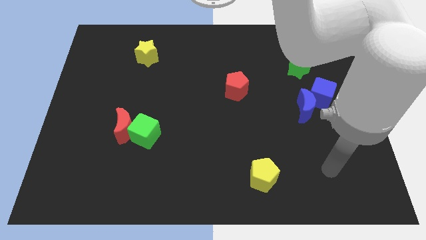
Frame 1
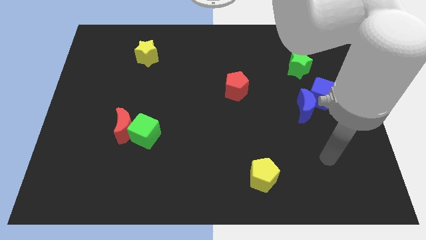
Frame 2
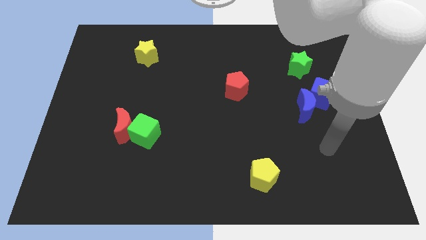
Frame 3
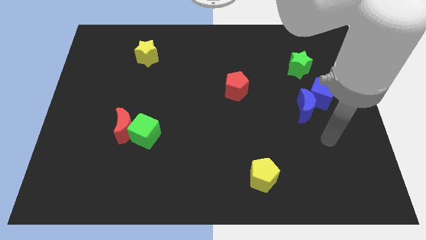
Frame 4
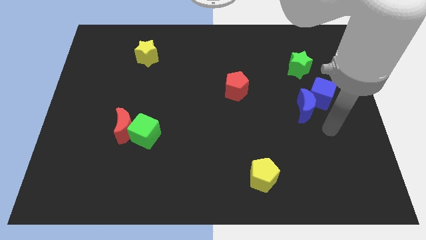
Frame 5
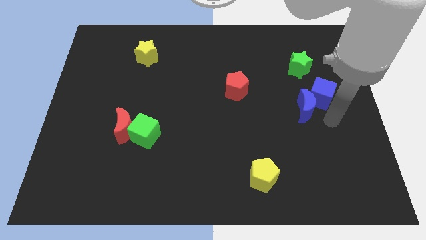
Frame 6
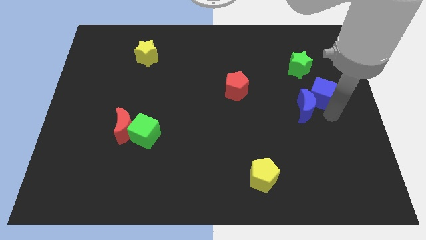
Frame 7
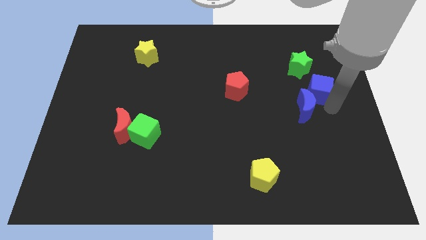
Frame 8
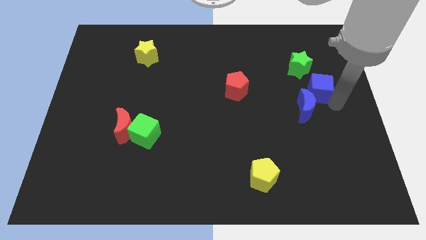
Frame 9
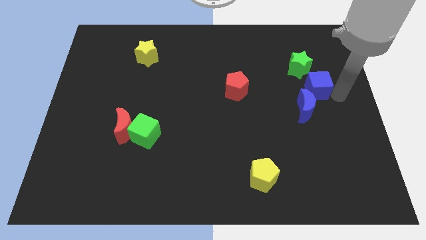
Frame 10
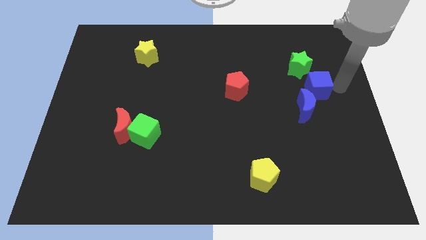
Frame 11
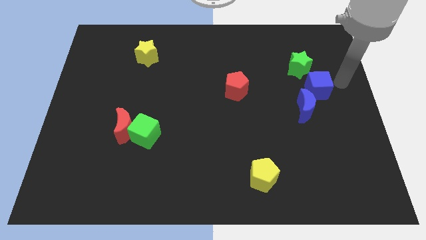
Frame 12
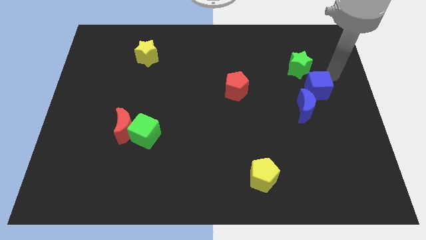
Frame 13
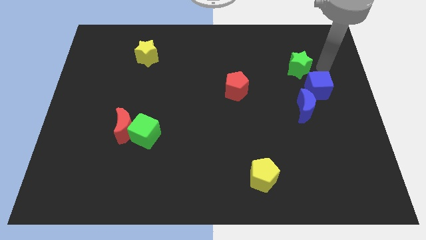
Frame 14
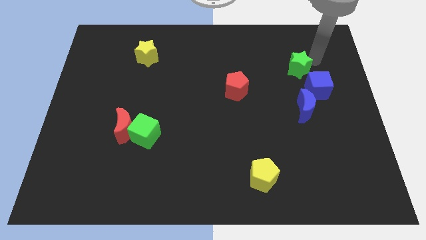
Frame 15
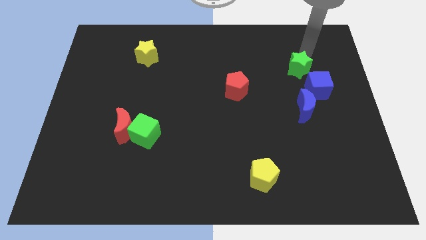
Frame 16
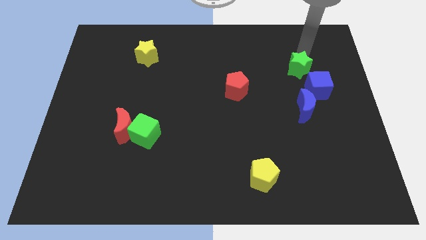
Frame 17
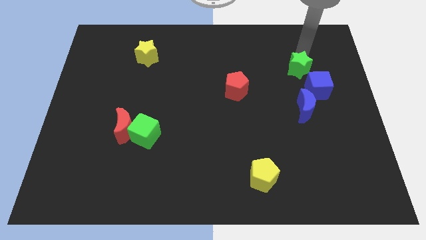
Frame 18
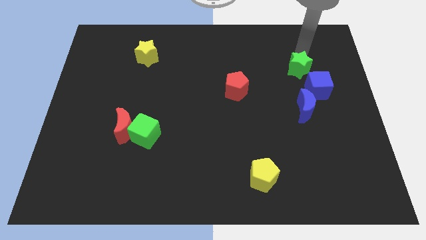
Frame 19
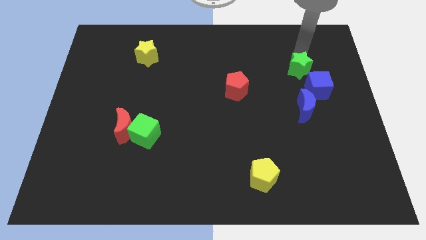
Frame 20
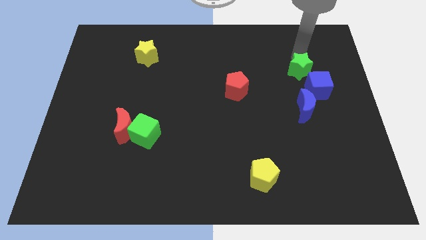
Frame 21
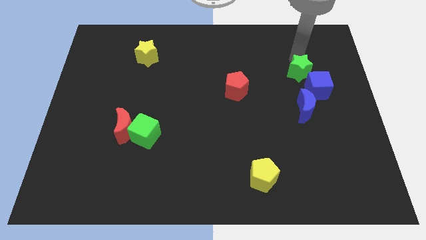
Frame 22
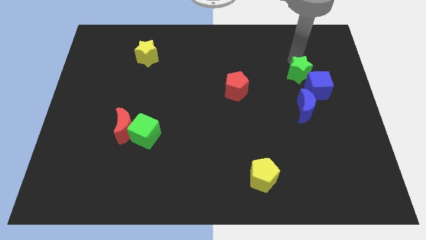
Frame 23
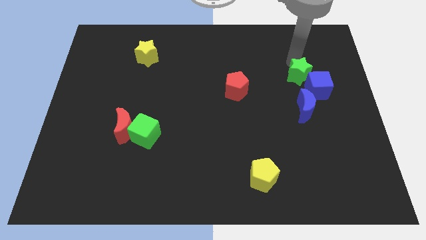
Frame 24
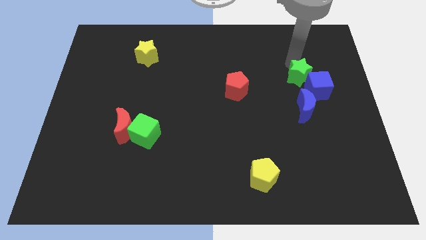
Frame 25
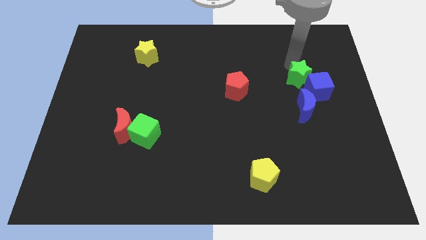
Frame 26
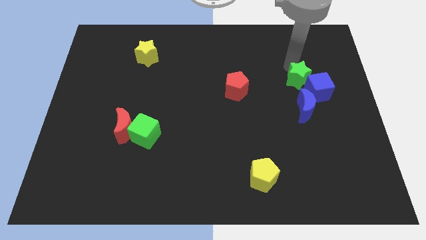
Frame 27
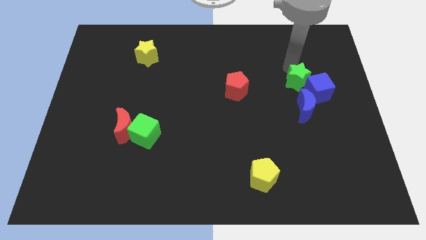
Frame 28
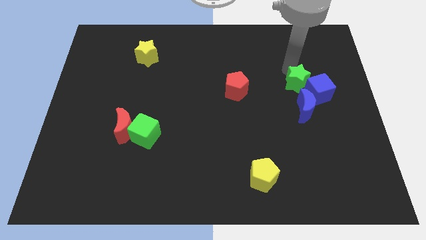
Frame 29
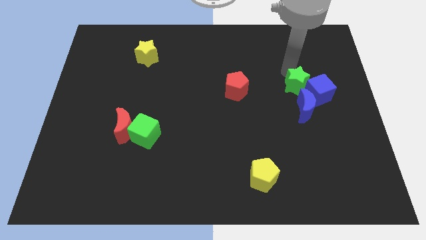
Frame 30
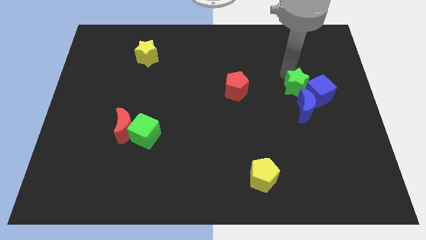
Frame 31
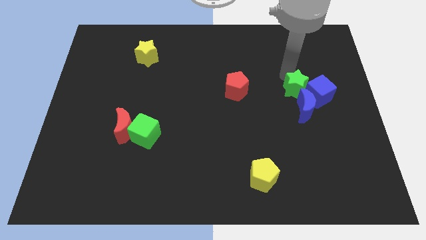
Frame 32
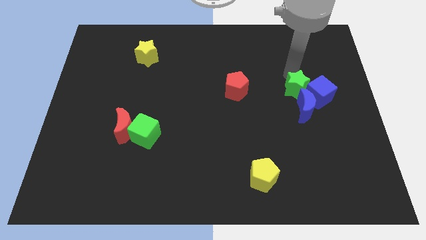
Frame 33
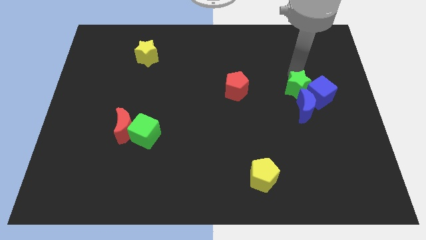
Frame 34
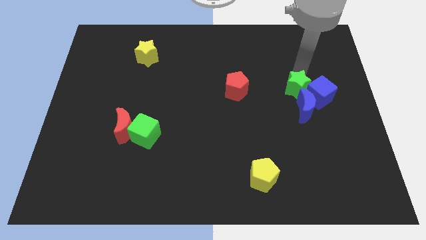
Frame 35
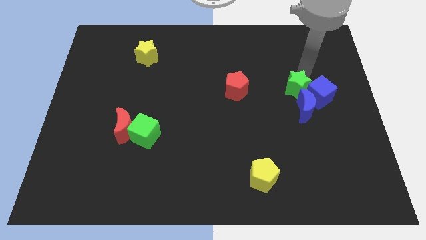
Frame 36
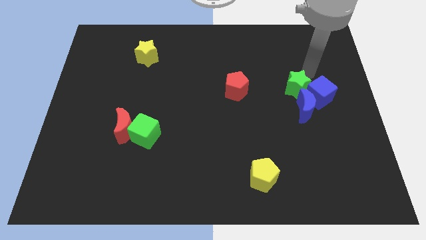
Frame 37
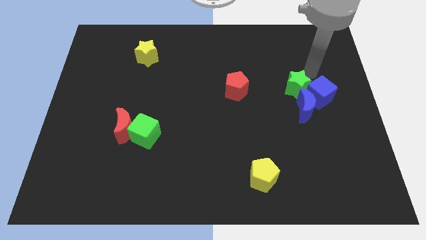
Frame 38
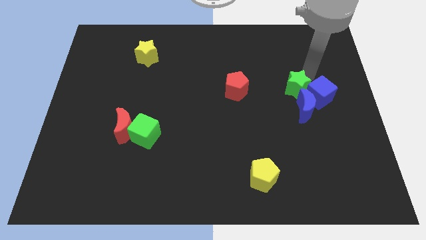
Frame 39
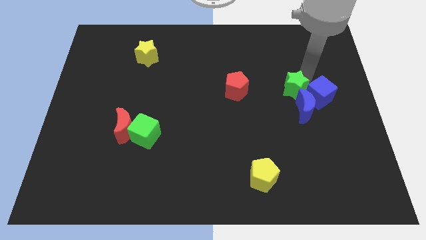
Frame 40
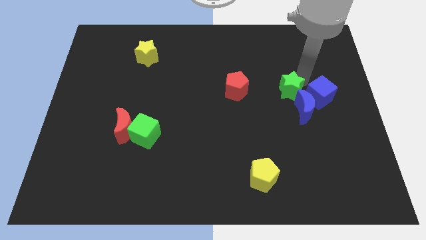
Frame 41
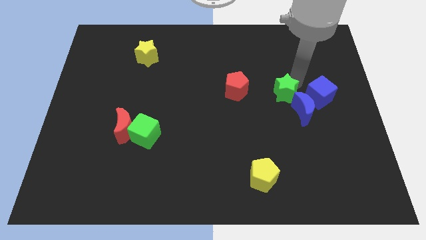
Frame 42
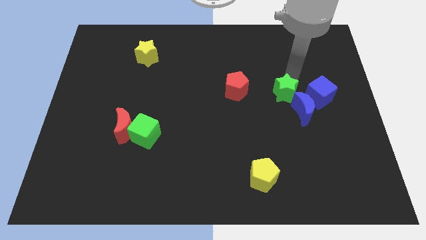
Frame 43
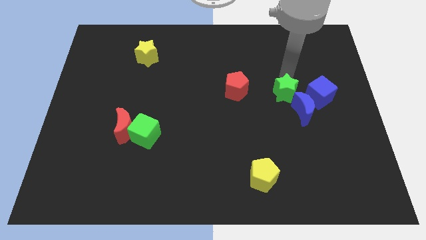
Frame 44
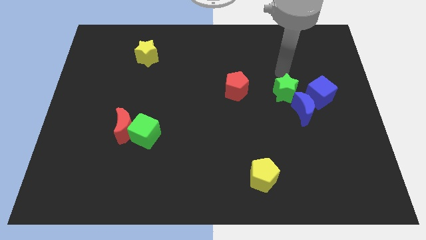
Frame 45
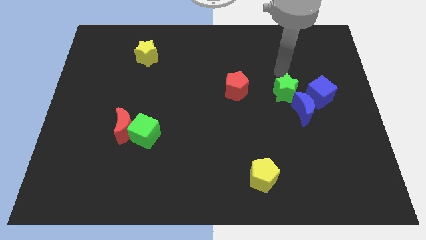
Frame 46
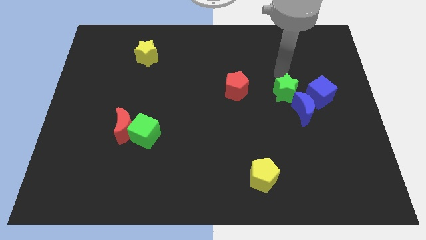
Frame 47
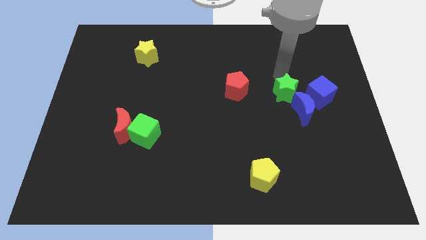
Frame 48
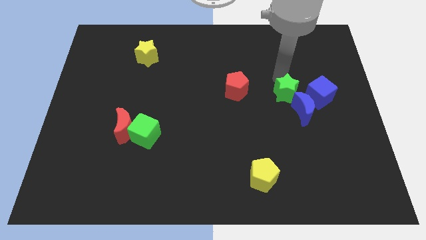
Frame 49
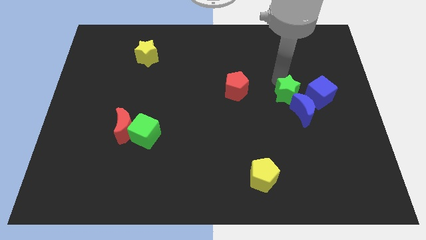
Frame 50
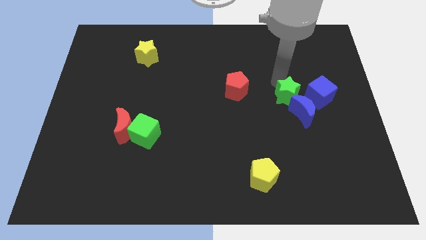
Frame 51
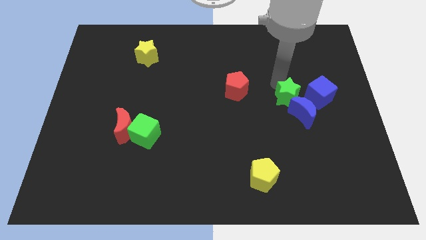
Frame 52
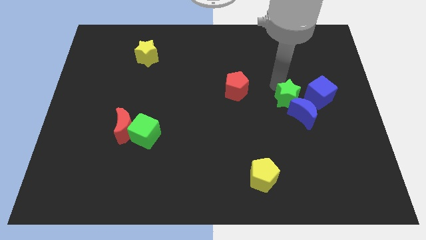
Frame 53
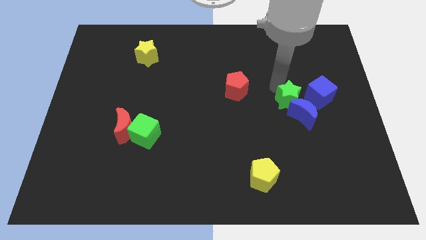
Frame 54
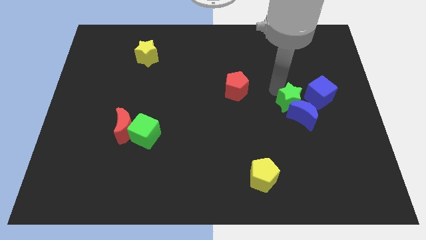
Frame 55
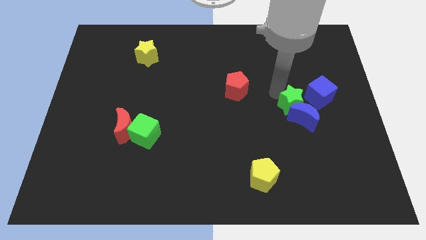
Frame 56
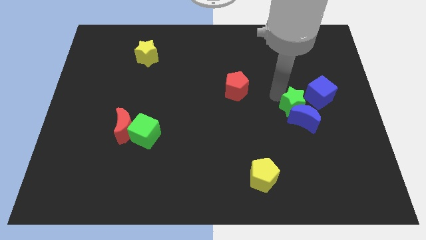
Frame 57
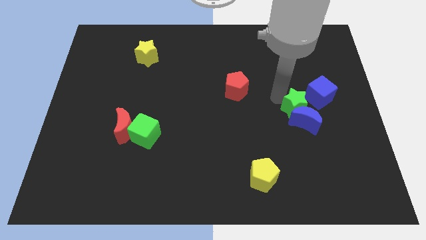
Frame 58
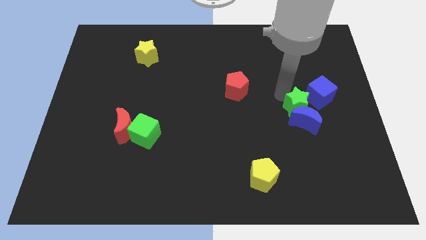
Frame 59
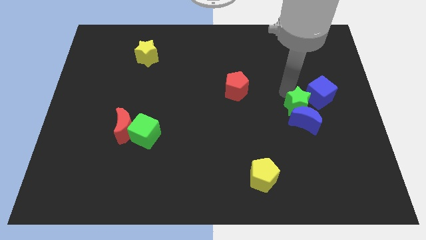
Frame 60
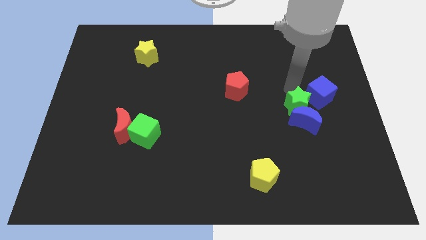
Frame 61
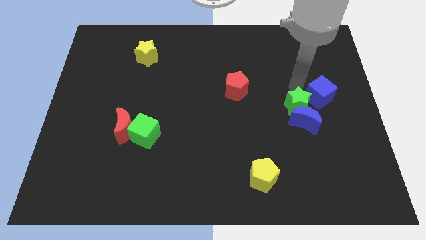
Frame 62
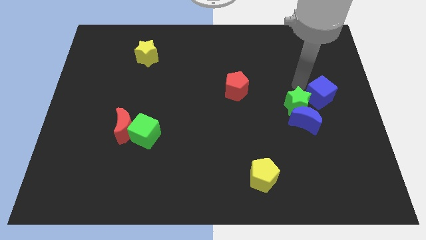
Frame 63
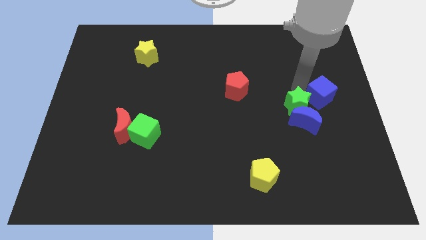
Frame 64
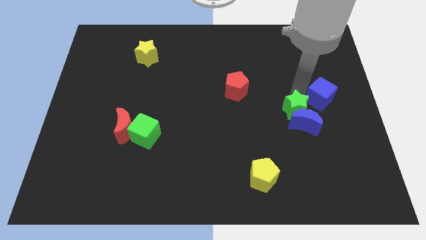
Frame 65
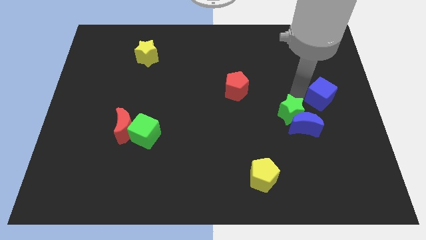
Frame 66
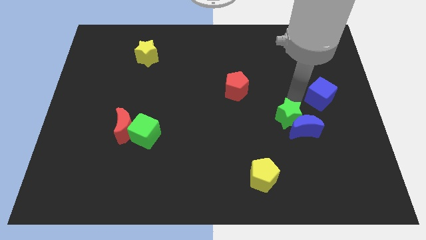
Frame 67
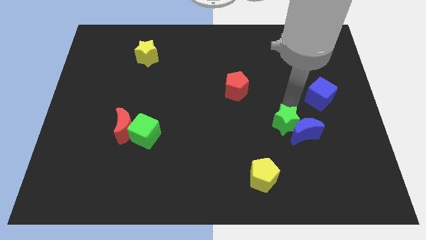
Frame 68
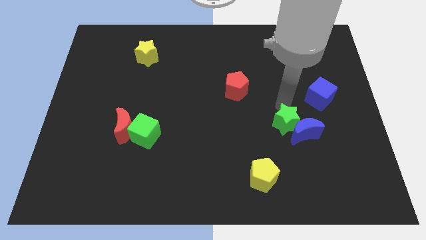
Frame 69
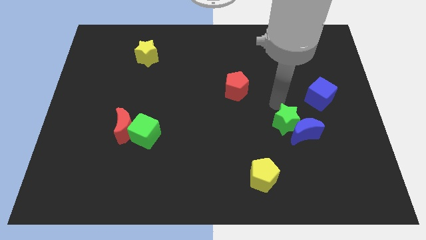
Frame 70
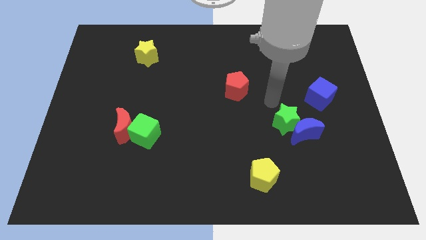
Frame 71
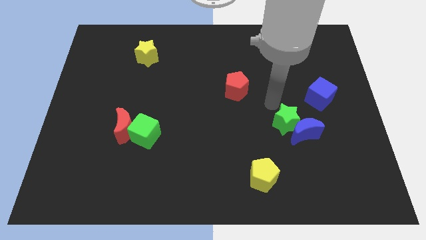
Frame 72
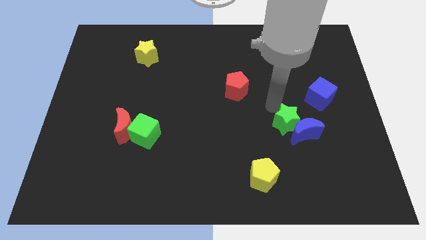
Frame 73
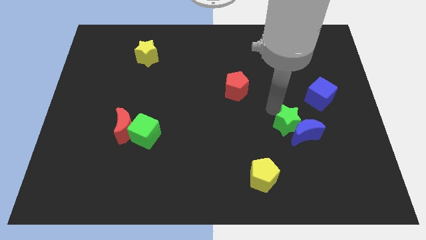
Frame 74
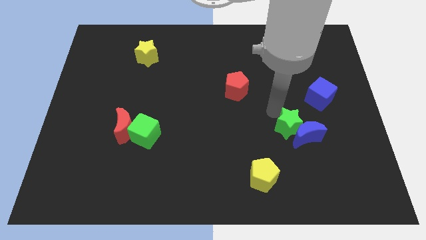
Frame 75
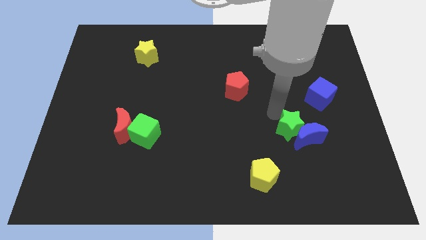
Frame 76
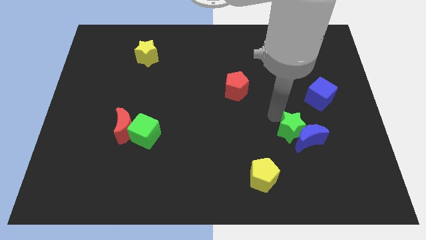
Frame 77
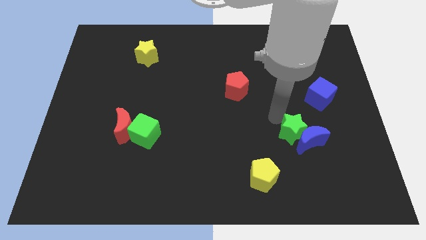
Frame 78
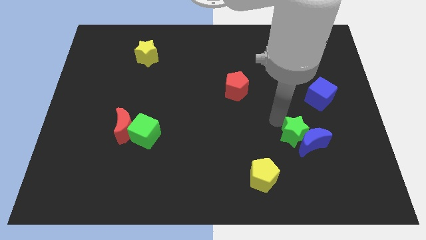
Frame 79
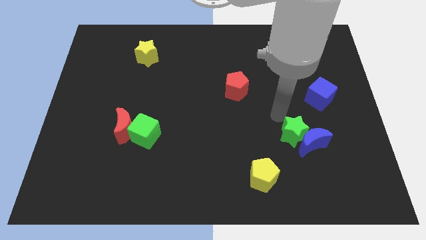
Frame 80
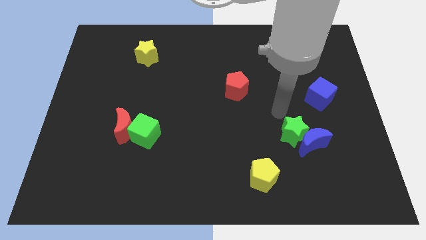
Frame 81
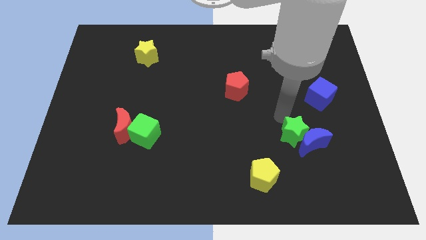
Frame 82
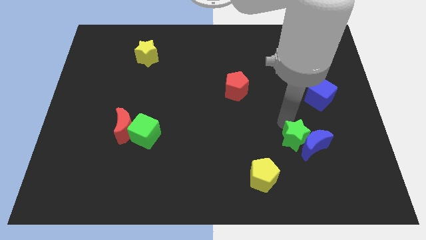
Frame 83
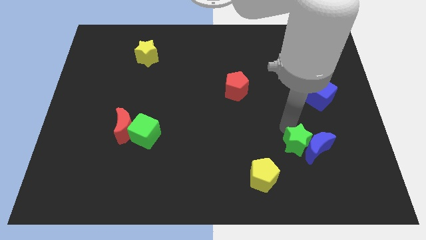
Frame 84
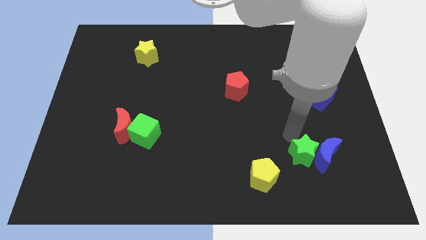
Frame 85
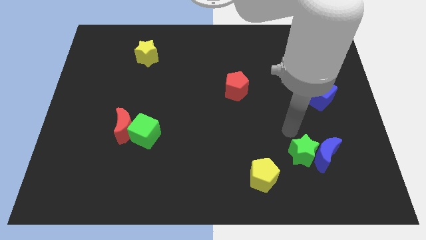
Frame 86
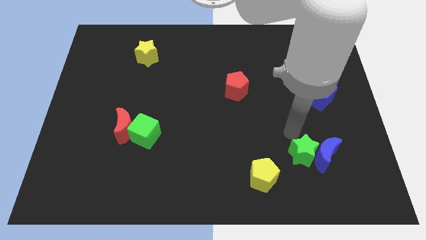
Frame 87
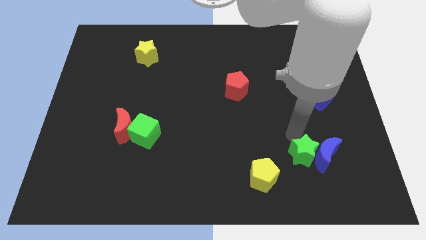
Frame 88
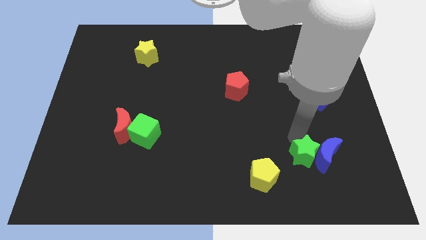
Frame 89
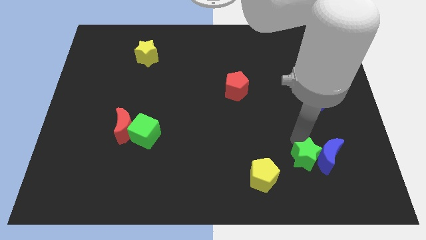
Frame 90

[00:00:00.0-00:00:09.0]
slide the green star right of the yellow pentagon
